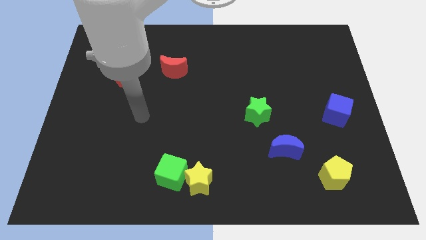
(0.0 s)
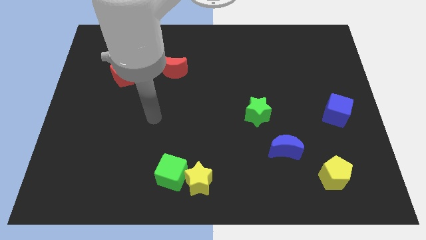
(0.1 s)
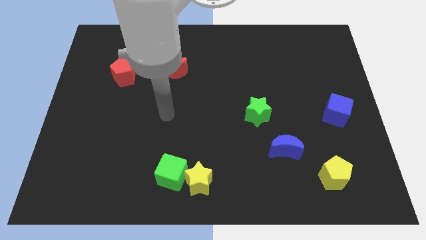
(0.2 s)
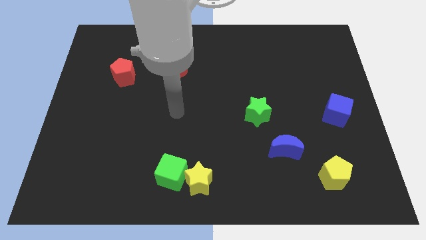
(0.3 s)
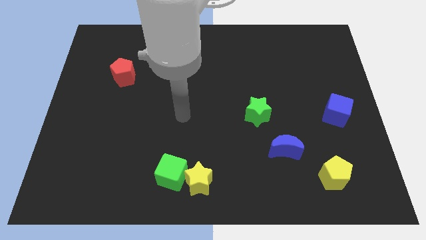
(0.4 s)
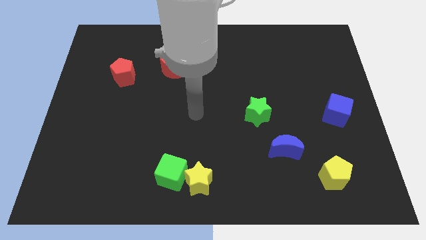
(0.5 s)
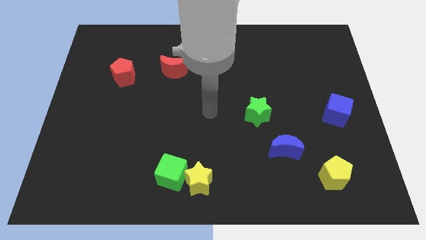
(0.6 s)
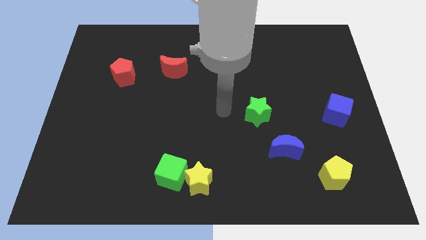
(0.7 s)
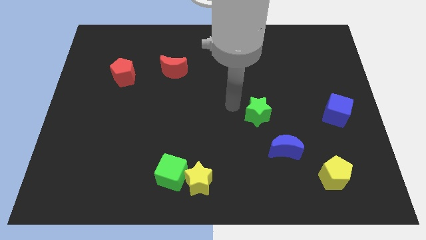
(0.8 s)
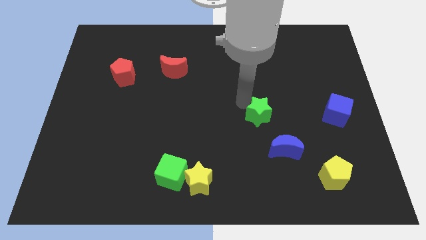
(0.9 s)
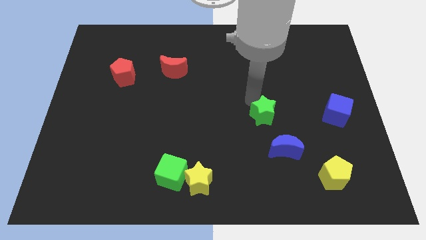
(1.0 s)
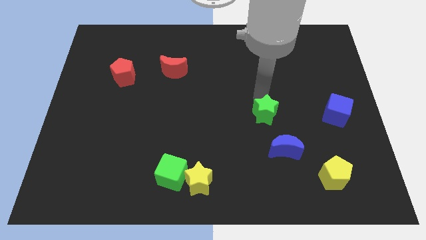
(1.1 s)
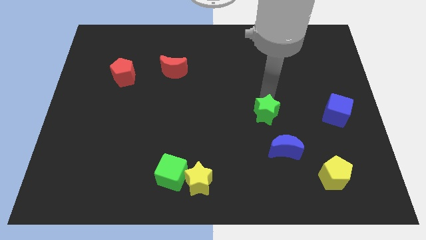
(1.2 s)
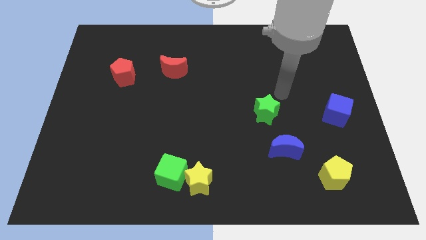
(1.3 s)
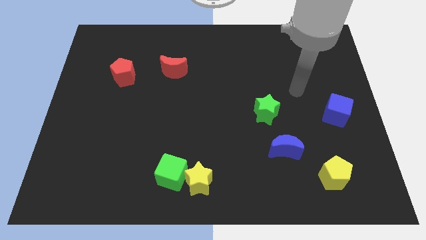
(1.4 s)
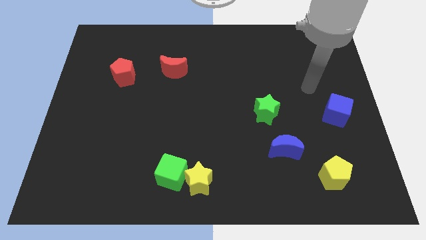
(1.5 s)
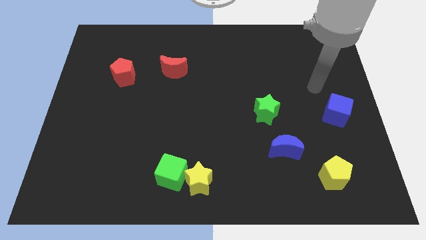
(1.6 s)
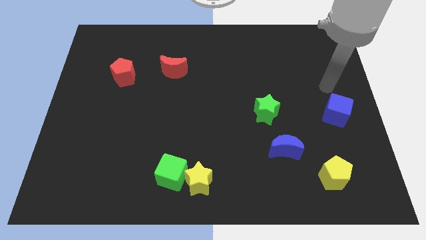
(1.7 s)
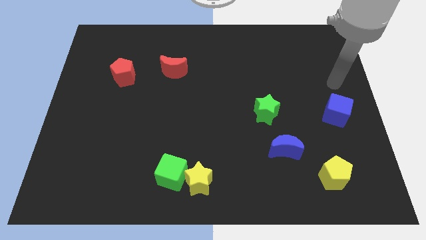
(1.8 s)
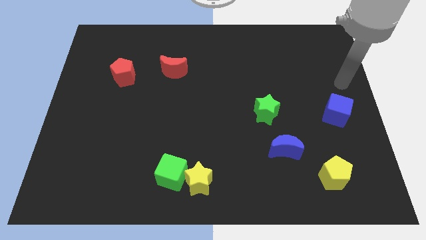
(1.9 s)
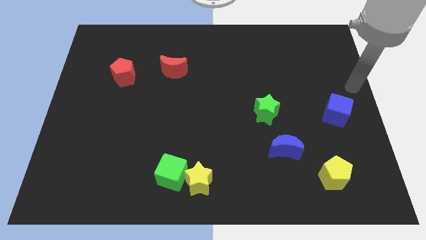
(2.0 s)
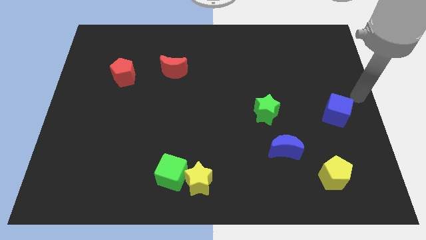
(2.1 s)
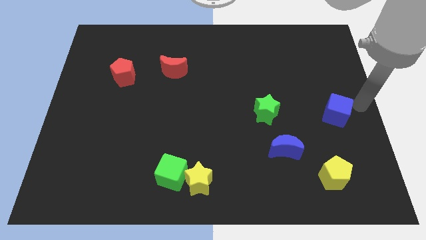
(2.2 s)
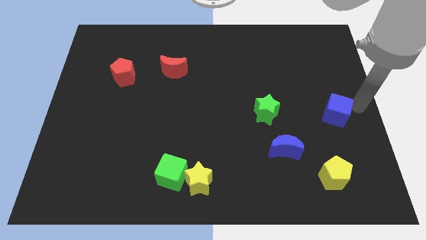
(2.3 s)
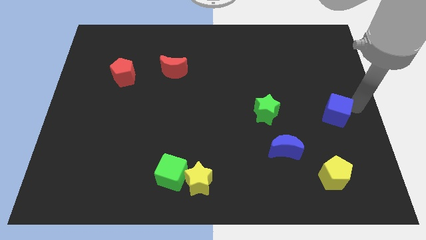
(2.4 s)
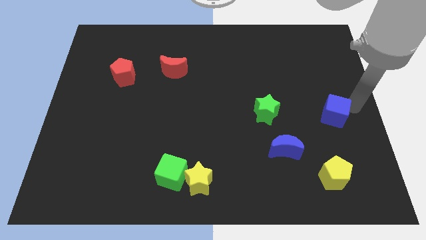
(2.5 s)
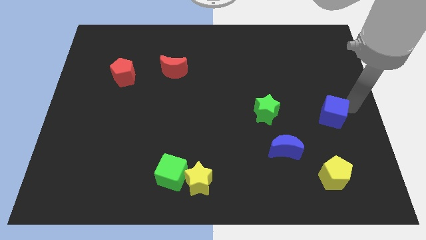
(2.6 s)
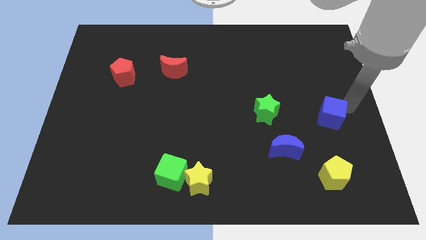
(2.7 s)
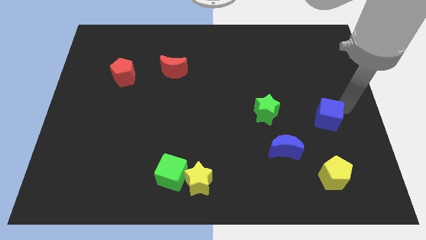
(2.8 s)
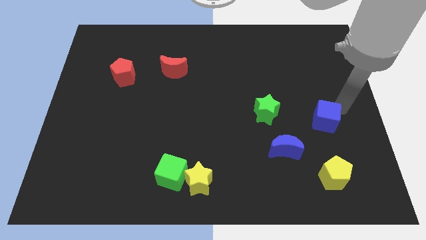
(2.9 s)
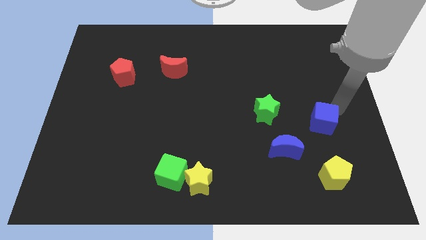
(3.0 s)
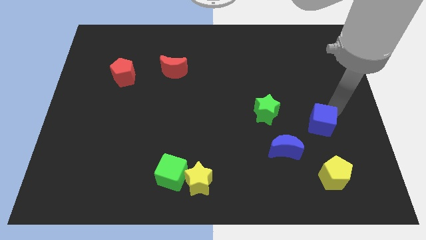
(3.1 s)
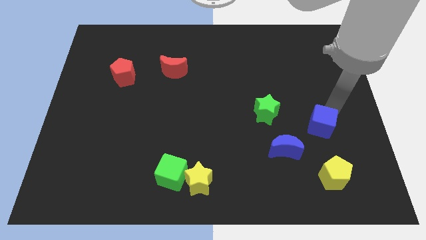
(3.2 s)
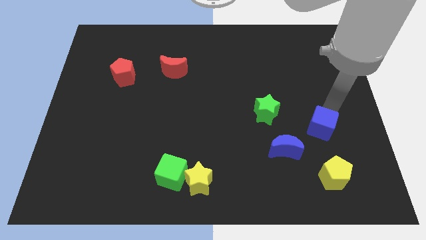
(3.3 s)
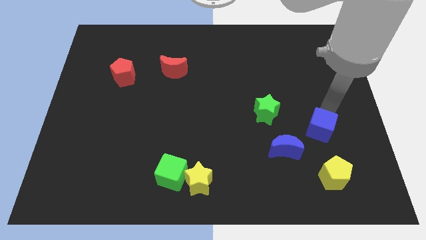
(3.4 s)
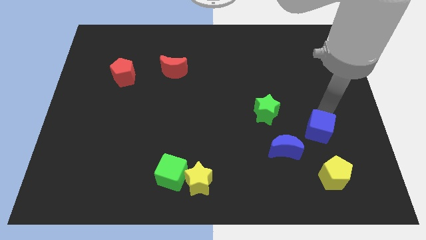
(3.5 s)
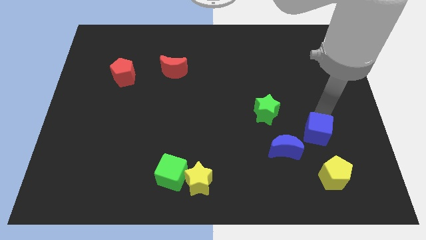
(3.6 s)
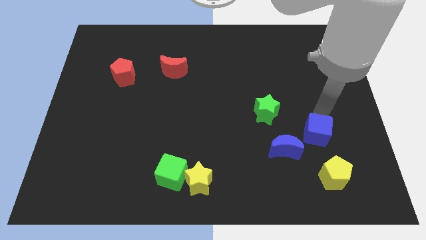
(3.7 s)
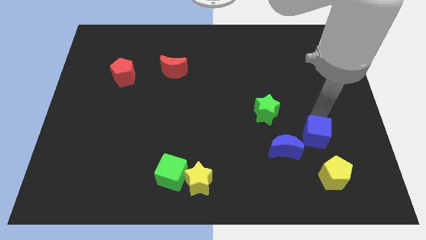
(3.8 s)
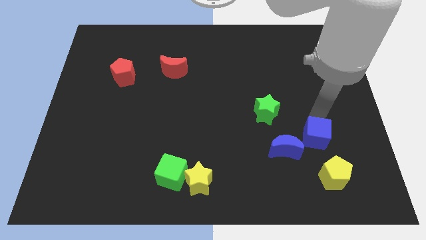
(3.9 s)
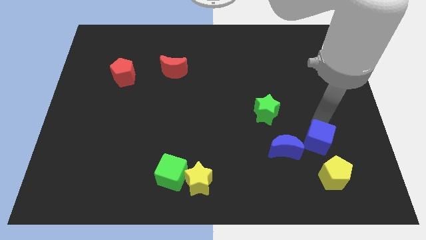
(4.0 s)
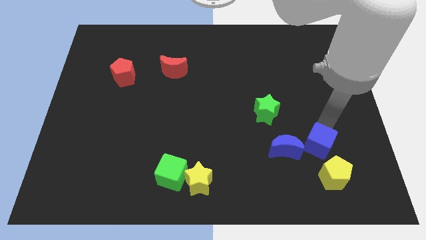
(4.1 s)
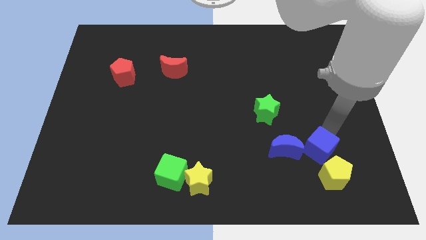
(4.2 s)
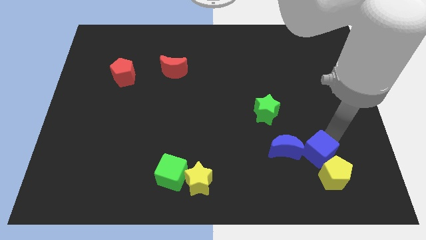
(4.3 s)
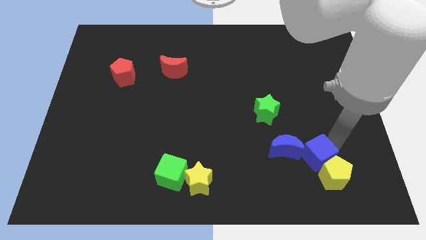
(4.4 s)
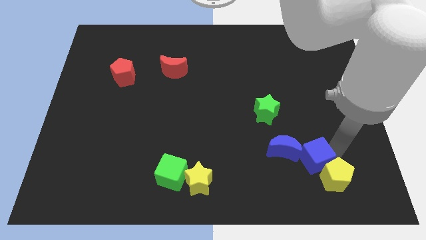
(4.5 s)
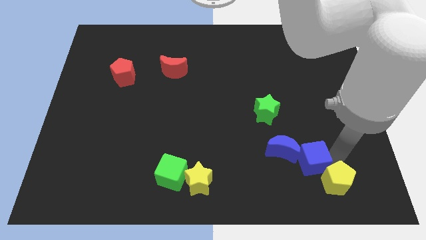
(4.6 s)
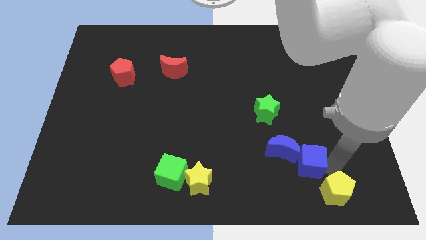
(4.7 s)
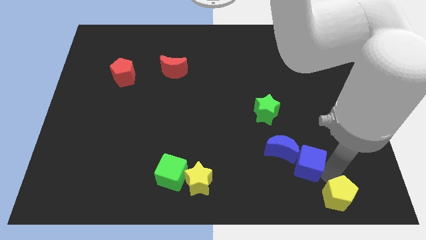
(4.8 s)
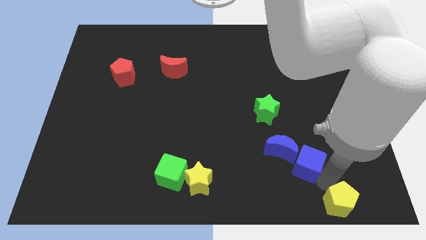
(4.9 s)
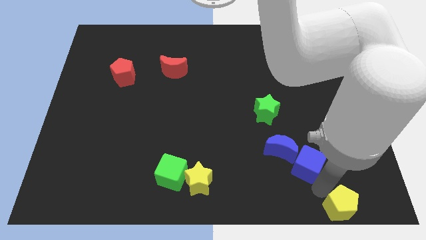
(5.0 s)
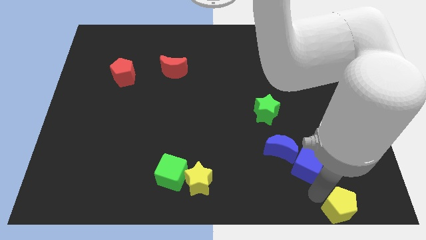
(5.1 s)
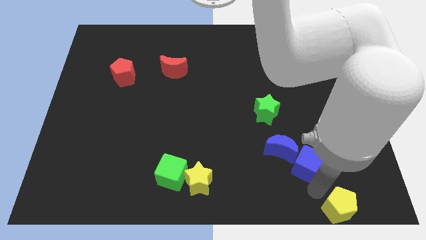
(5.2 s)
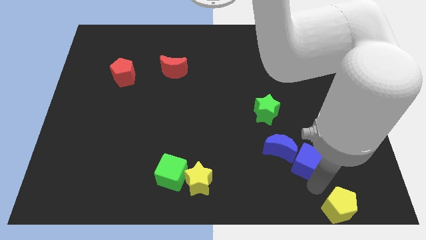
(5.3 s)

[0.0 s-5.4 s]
put the blue cube close to the blue moon

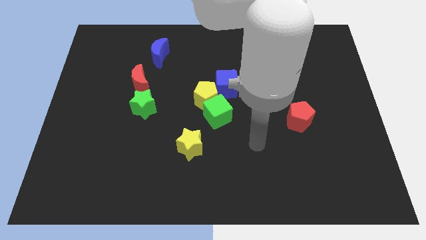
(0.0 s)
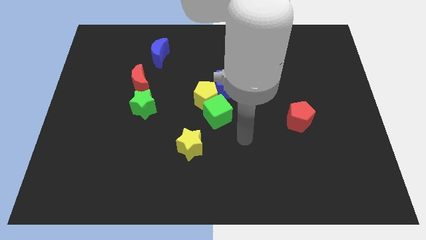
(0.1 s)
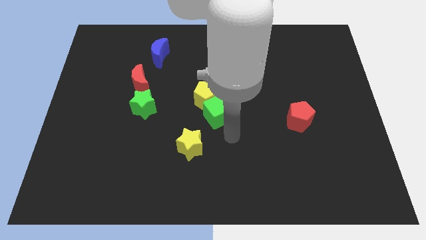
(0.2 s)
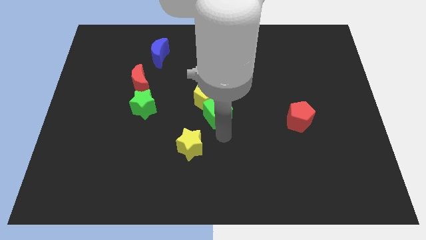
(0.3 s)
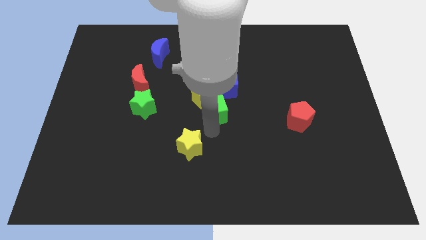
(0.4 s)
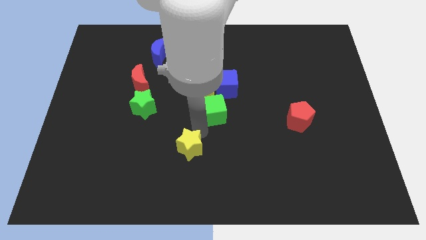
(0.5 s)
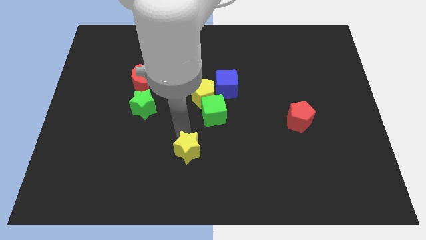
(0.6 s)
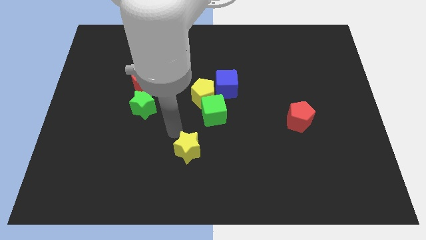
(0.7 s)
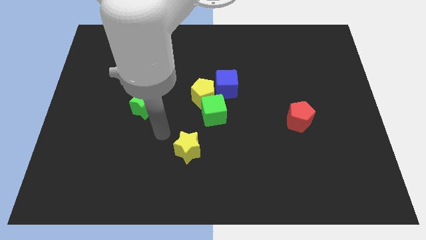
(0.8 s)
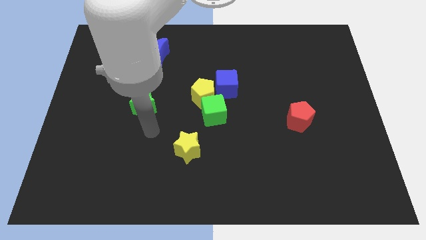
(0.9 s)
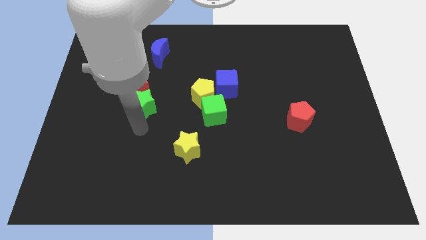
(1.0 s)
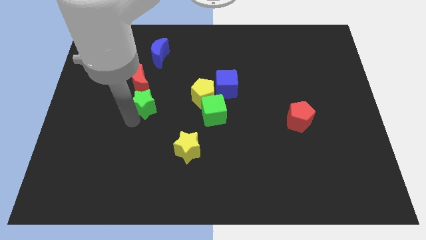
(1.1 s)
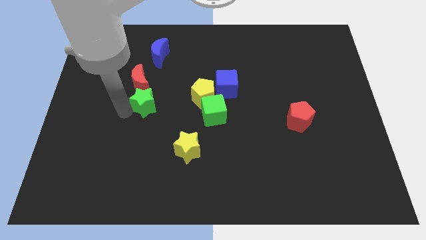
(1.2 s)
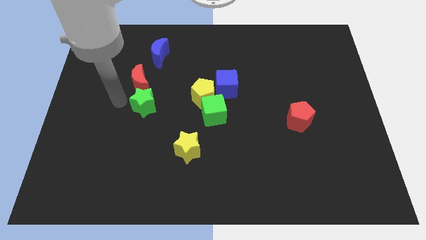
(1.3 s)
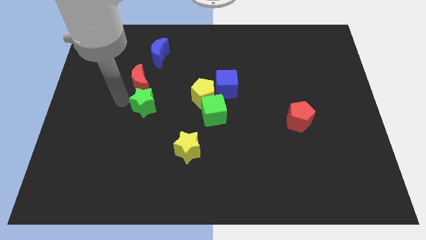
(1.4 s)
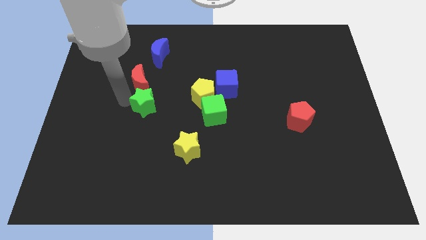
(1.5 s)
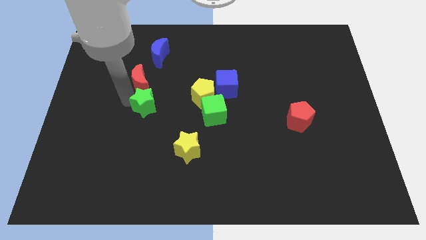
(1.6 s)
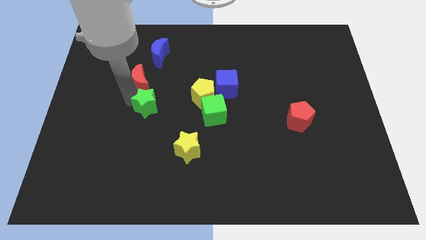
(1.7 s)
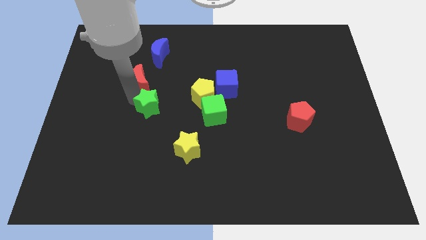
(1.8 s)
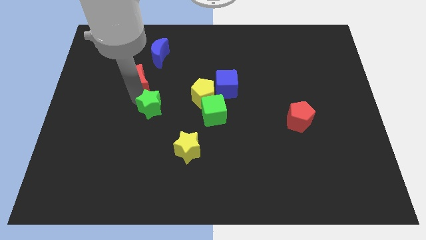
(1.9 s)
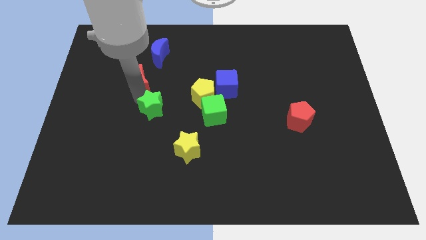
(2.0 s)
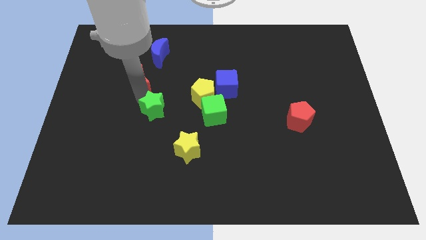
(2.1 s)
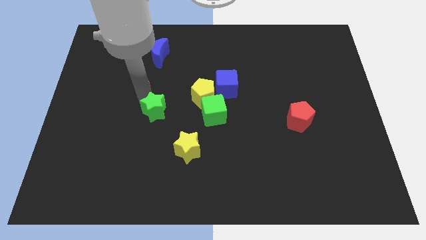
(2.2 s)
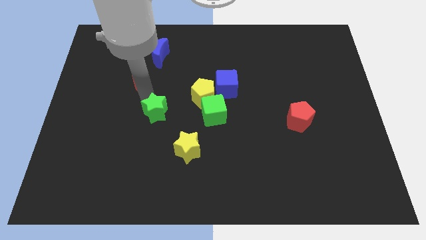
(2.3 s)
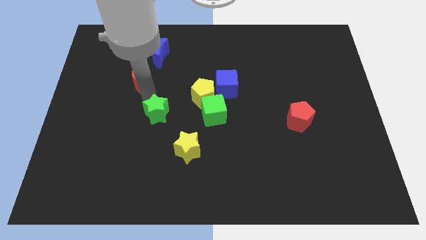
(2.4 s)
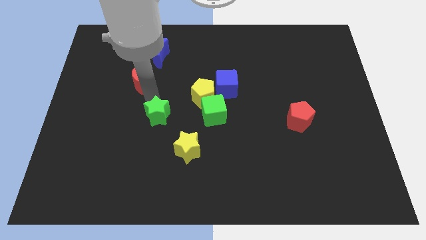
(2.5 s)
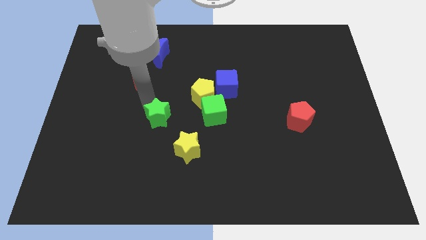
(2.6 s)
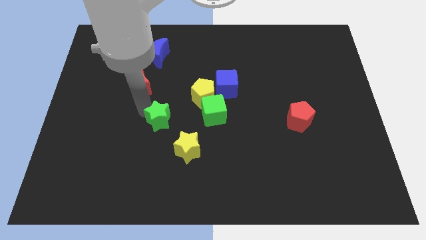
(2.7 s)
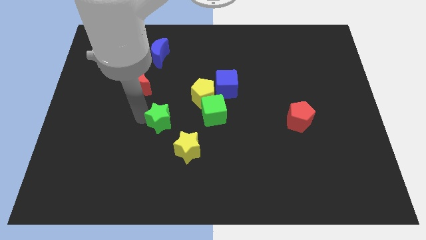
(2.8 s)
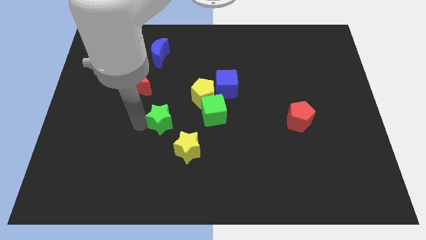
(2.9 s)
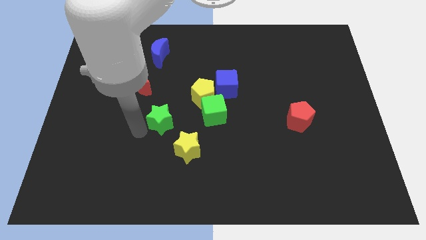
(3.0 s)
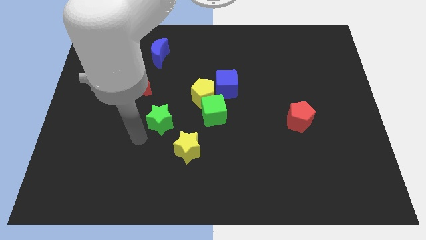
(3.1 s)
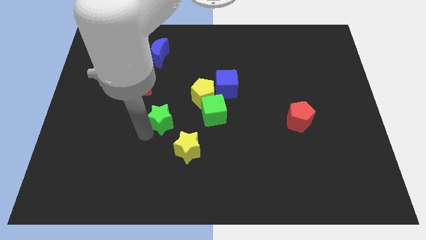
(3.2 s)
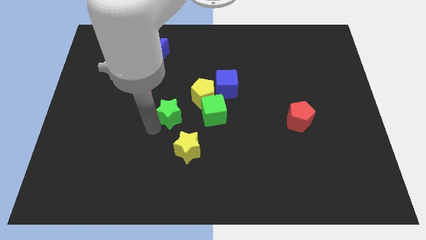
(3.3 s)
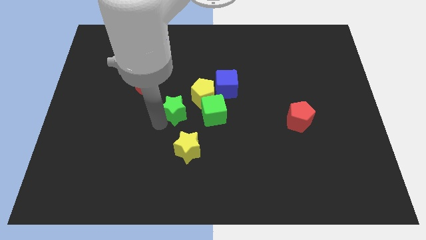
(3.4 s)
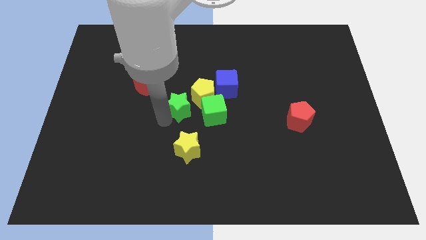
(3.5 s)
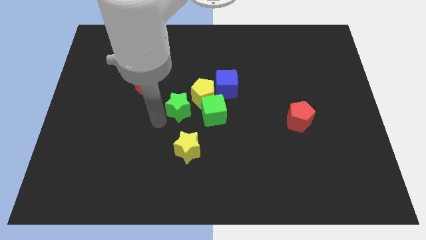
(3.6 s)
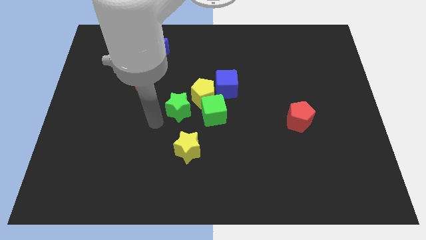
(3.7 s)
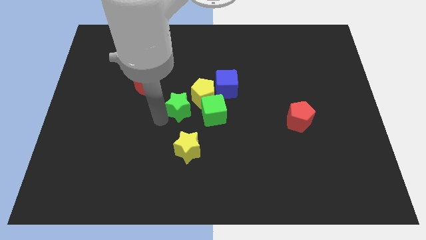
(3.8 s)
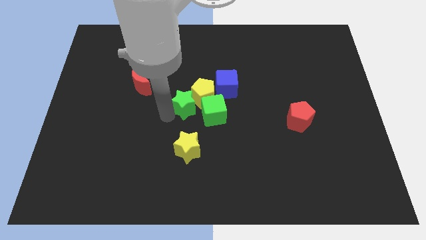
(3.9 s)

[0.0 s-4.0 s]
push the green star towards the yellow pentagon
